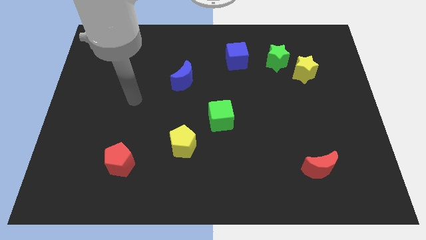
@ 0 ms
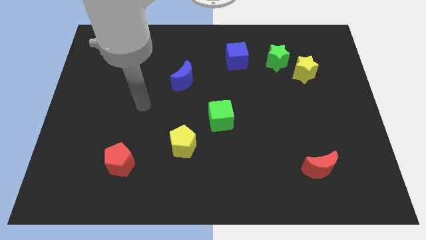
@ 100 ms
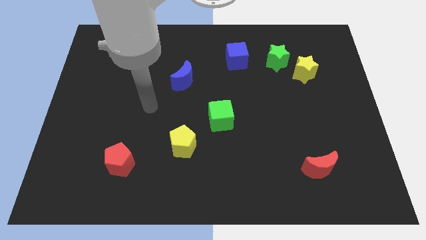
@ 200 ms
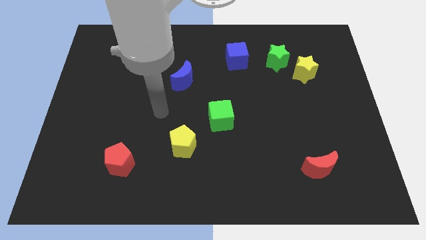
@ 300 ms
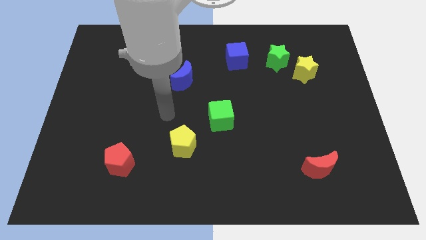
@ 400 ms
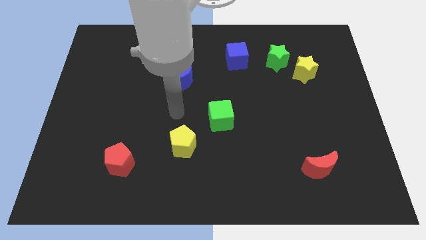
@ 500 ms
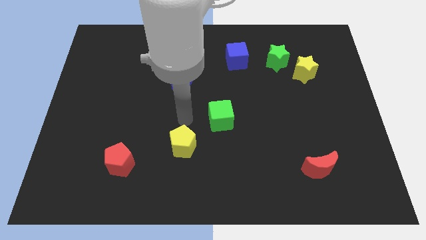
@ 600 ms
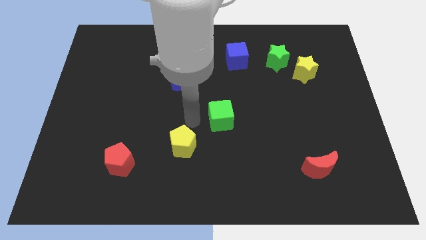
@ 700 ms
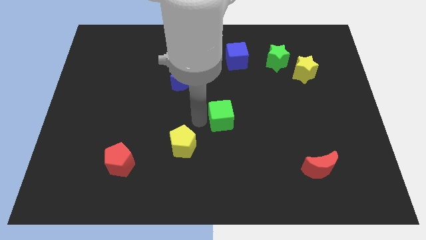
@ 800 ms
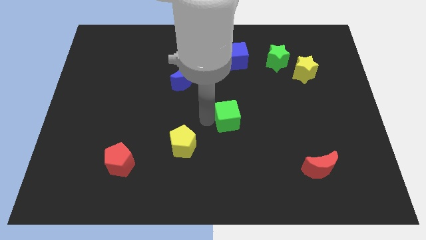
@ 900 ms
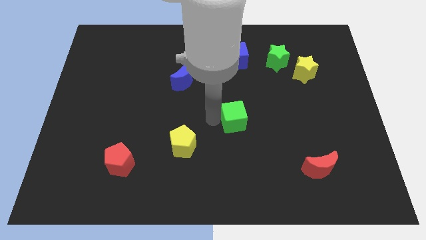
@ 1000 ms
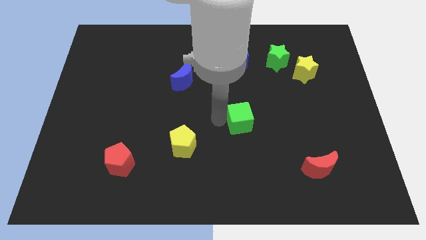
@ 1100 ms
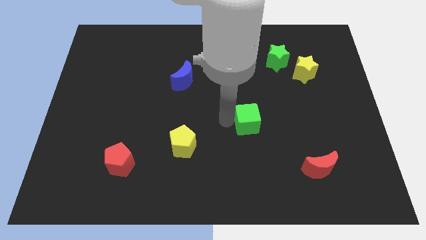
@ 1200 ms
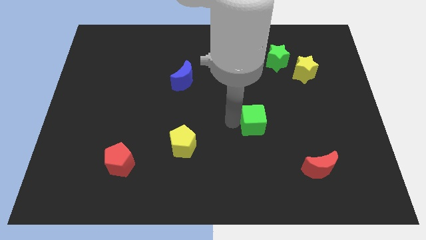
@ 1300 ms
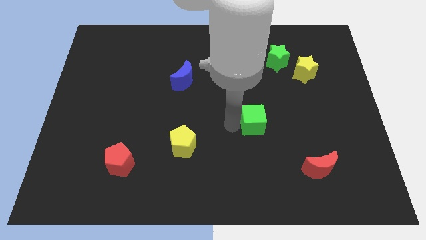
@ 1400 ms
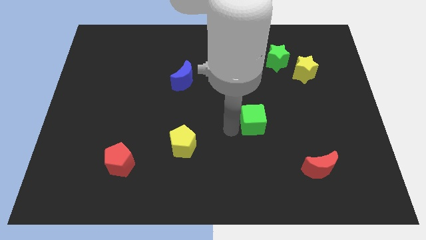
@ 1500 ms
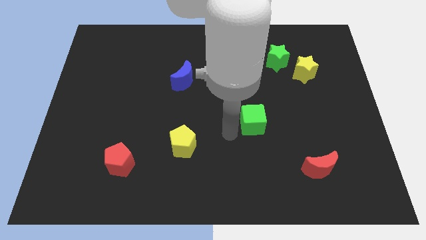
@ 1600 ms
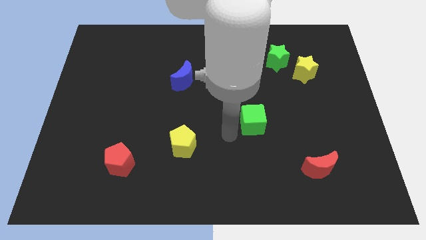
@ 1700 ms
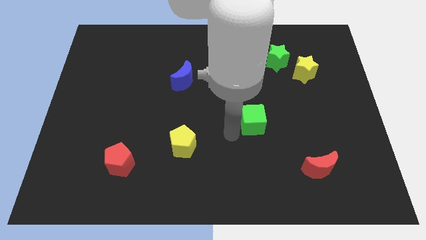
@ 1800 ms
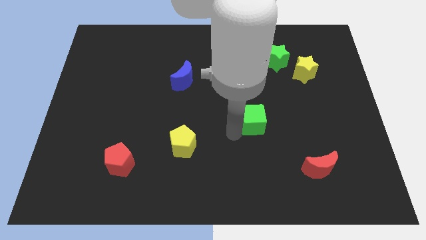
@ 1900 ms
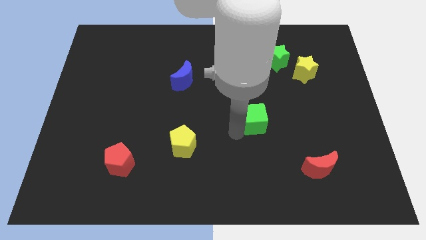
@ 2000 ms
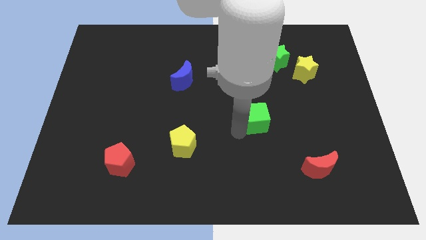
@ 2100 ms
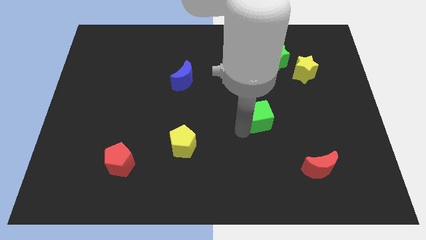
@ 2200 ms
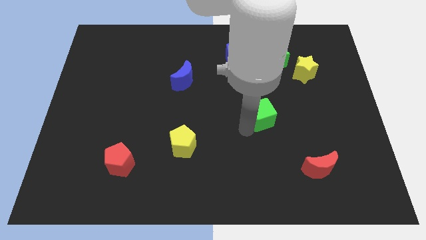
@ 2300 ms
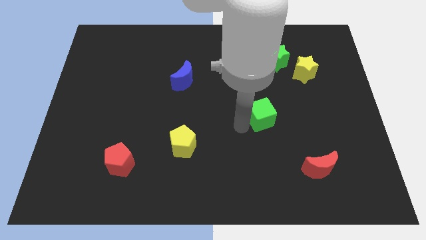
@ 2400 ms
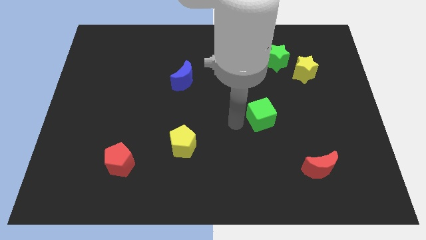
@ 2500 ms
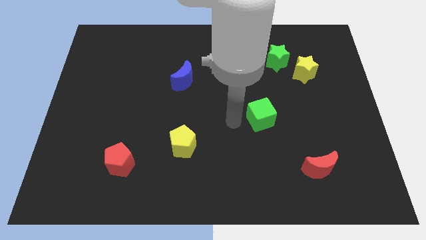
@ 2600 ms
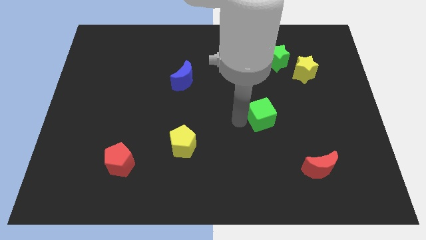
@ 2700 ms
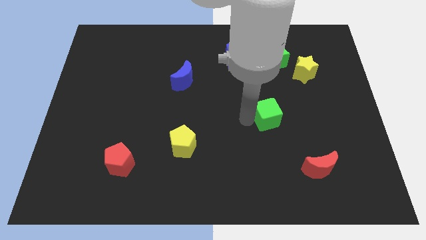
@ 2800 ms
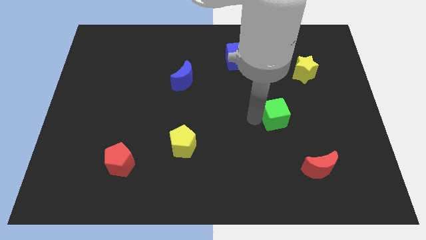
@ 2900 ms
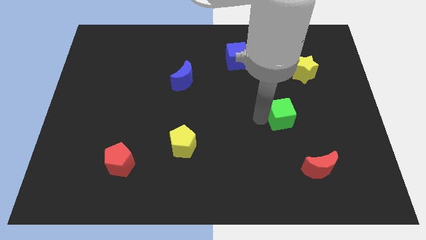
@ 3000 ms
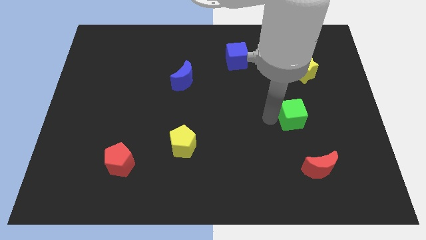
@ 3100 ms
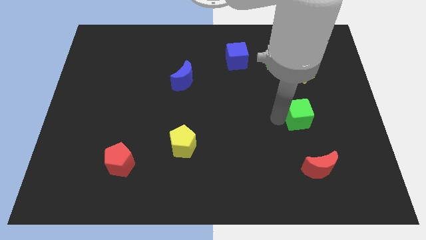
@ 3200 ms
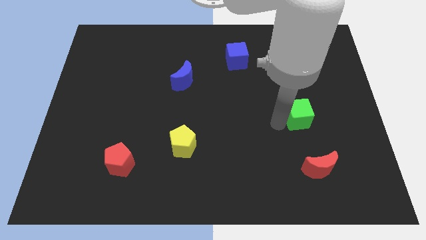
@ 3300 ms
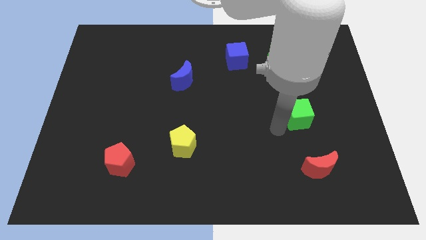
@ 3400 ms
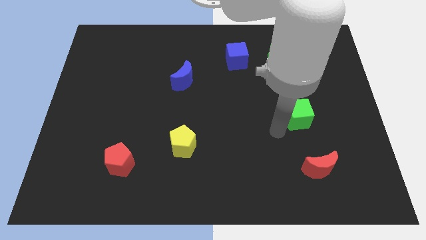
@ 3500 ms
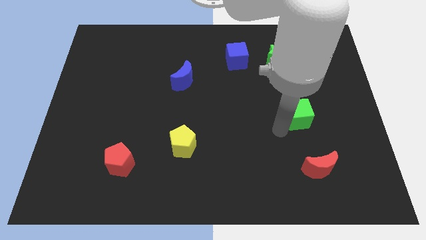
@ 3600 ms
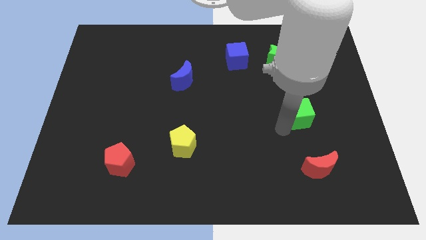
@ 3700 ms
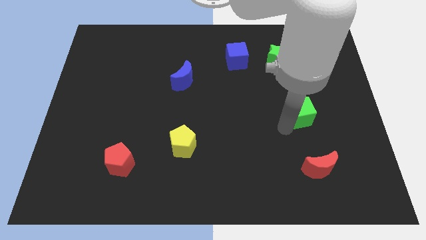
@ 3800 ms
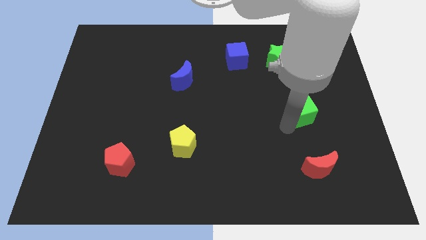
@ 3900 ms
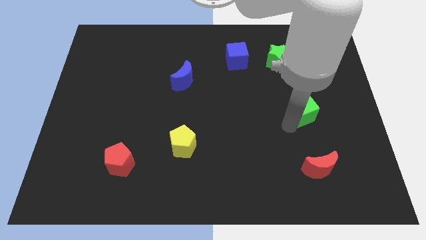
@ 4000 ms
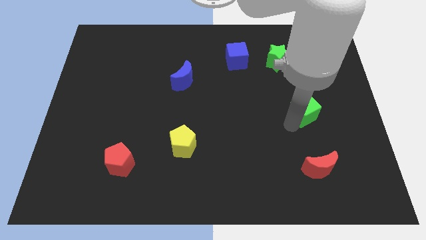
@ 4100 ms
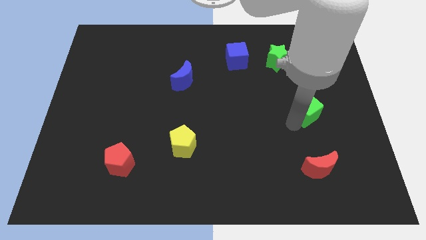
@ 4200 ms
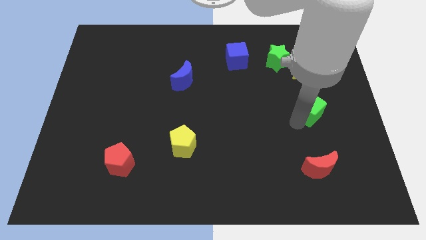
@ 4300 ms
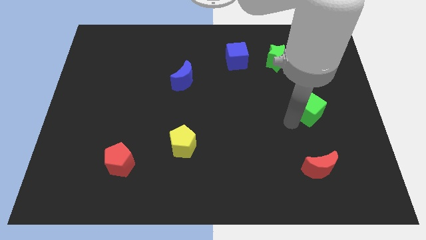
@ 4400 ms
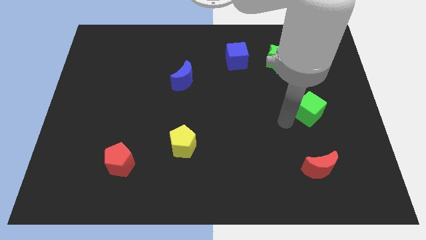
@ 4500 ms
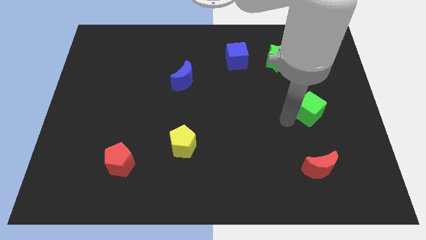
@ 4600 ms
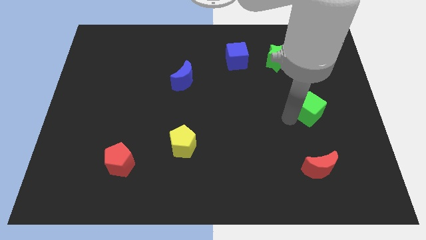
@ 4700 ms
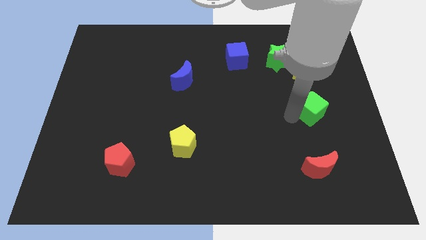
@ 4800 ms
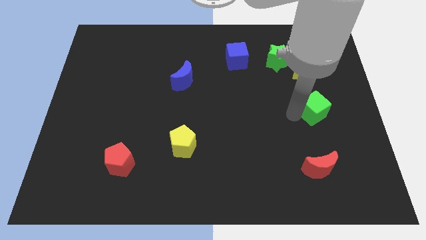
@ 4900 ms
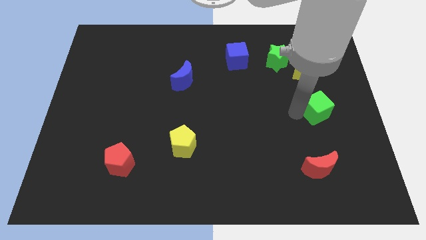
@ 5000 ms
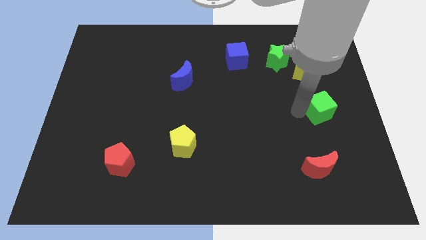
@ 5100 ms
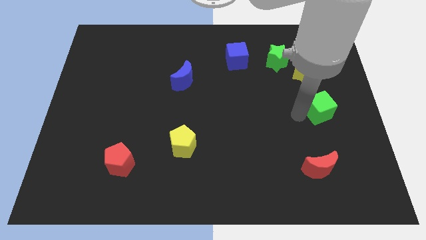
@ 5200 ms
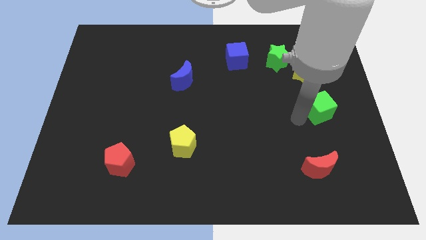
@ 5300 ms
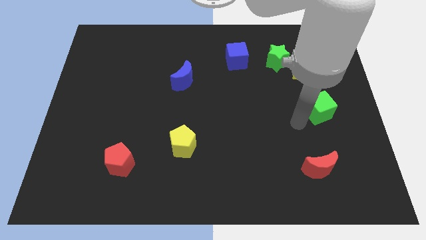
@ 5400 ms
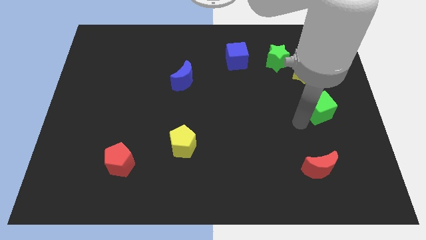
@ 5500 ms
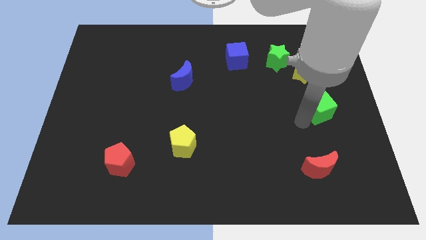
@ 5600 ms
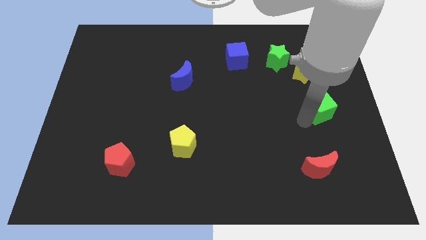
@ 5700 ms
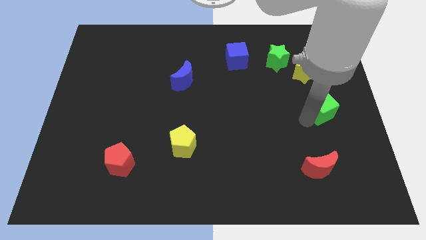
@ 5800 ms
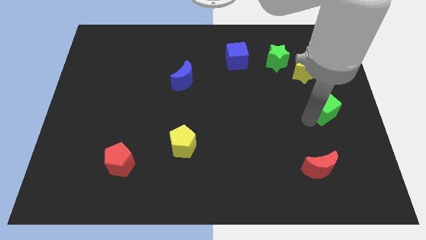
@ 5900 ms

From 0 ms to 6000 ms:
move the green cube to the right side of the board
